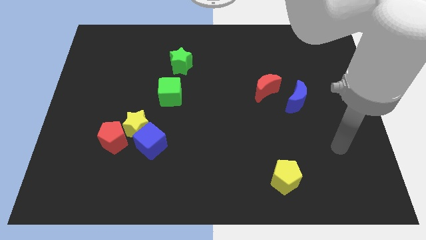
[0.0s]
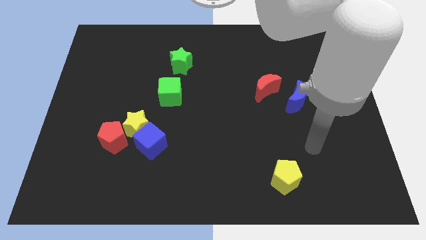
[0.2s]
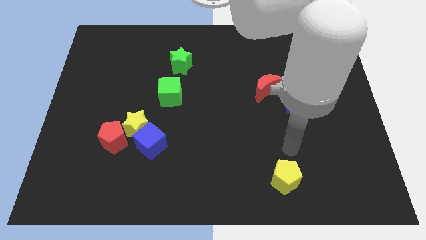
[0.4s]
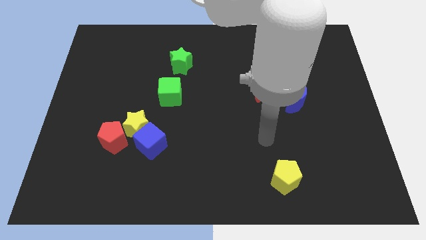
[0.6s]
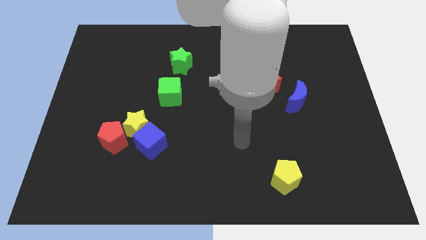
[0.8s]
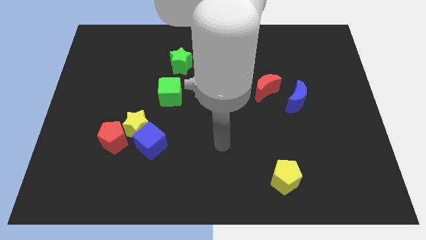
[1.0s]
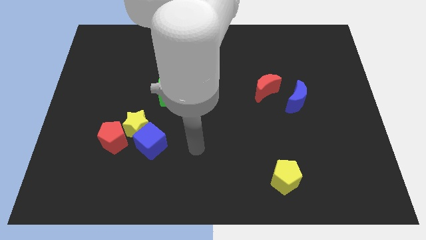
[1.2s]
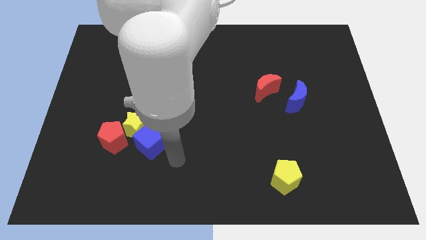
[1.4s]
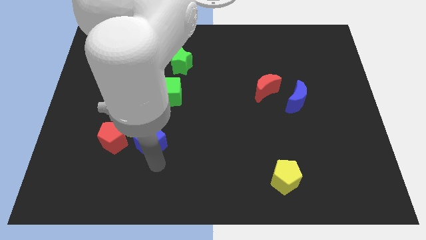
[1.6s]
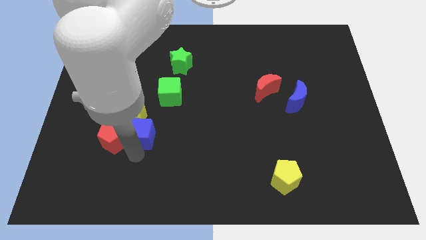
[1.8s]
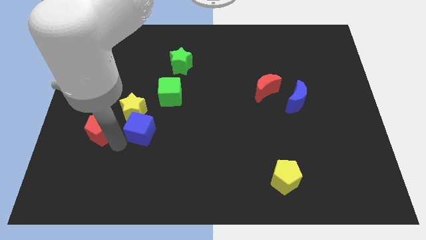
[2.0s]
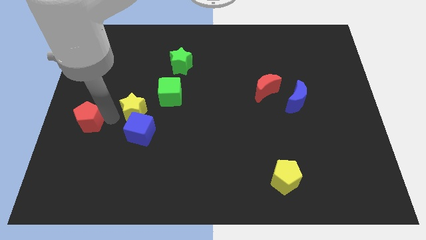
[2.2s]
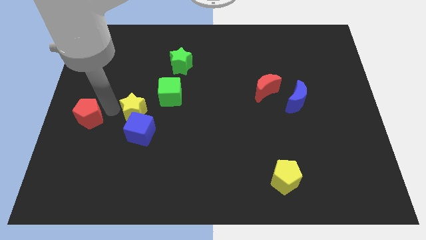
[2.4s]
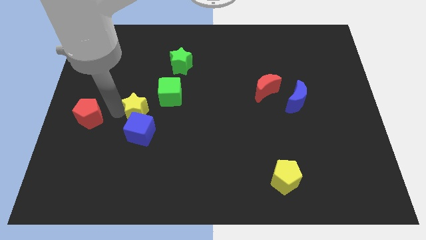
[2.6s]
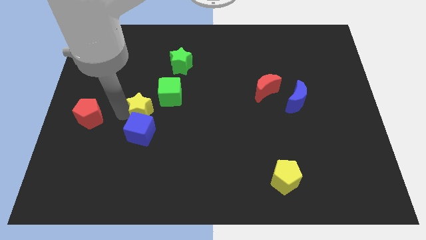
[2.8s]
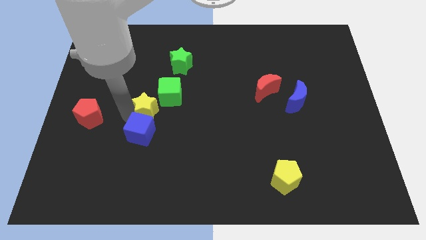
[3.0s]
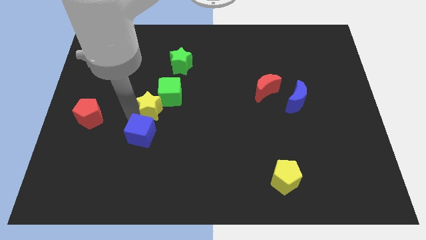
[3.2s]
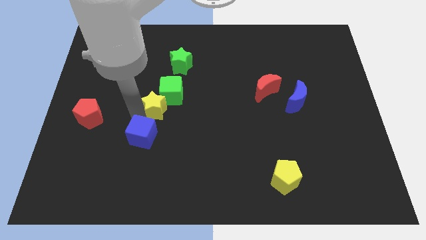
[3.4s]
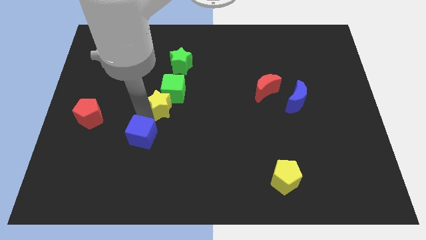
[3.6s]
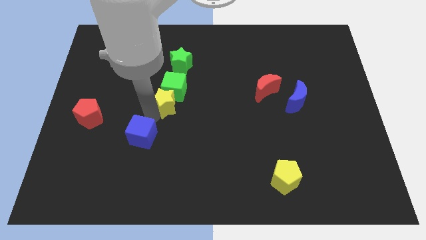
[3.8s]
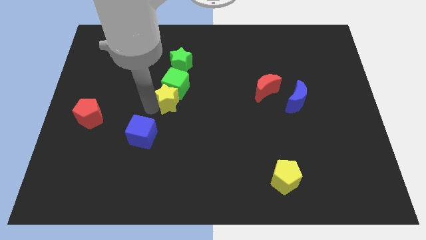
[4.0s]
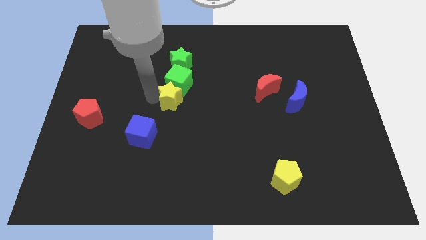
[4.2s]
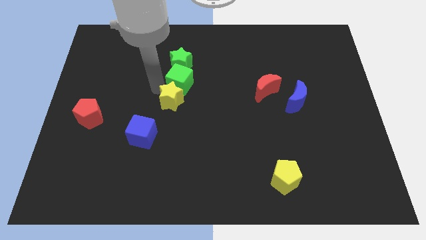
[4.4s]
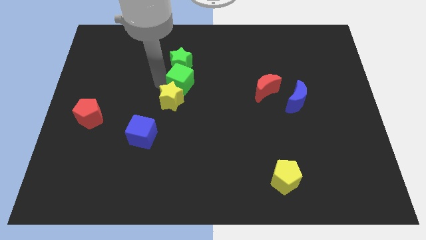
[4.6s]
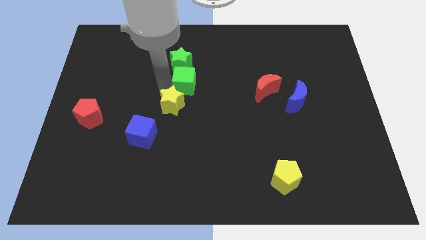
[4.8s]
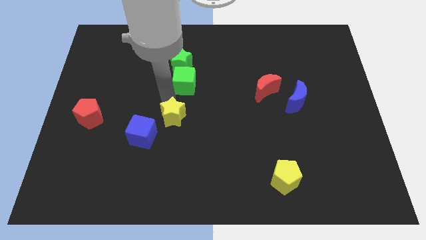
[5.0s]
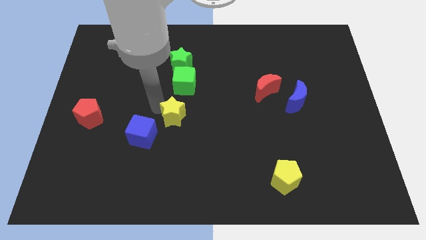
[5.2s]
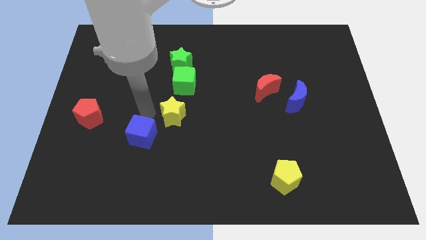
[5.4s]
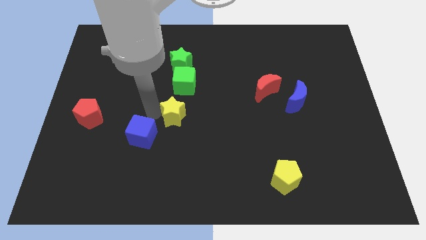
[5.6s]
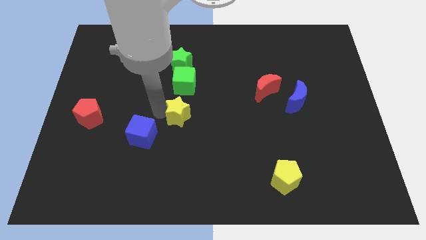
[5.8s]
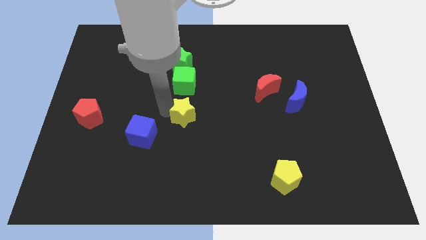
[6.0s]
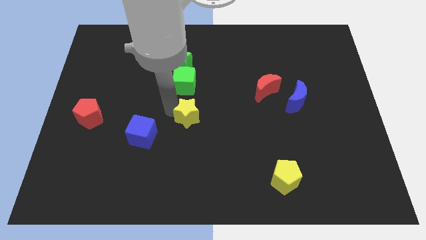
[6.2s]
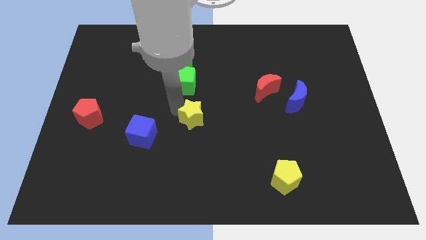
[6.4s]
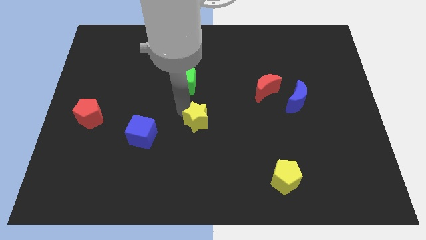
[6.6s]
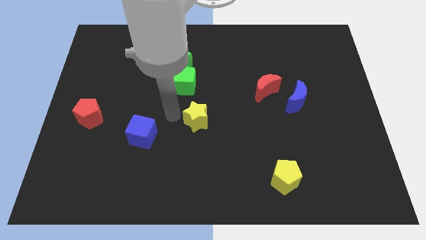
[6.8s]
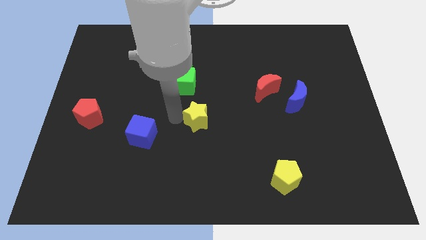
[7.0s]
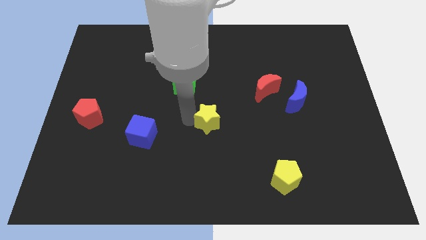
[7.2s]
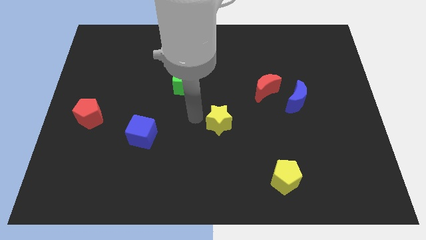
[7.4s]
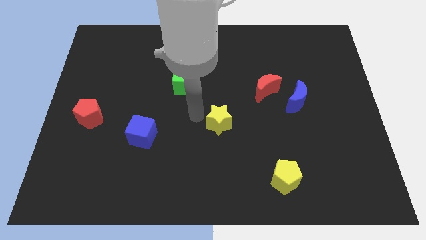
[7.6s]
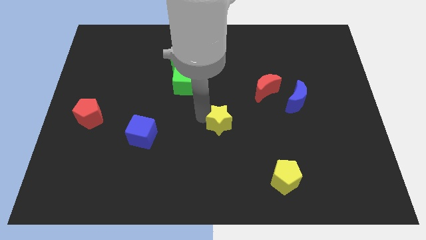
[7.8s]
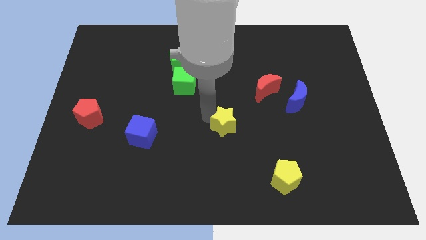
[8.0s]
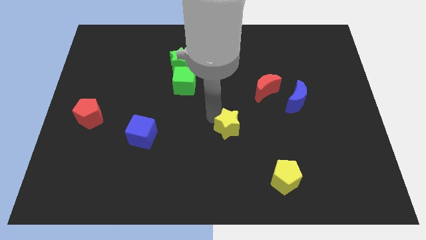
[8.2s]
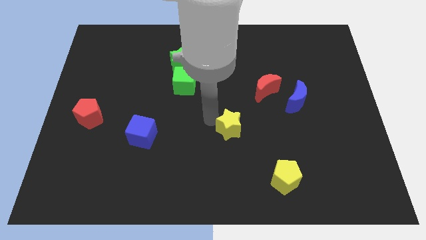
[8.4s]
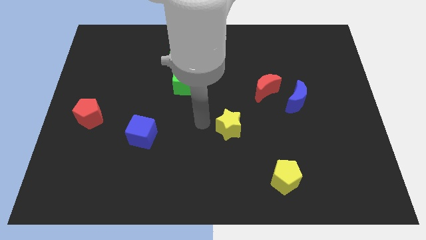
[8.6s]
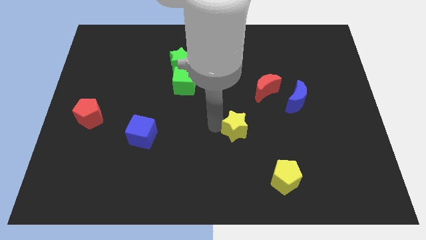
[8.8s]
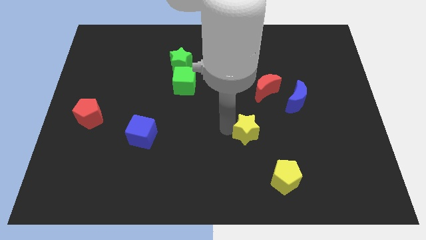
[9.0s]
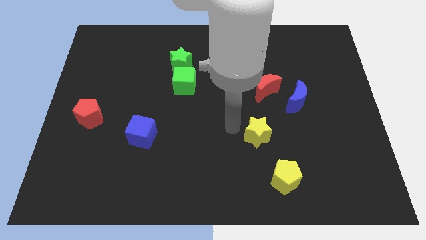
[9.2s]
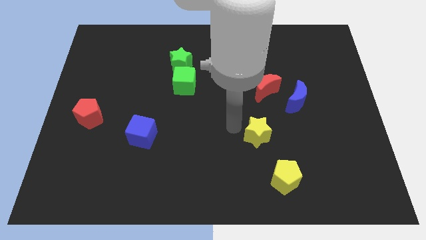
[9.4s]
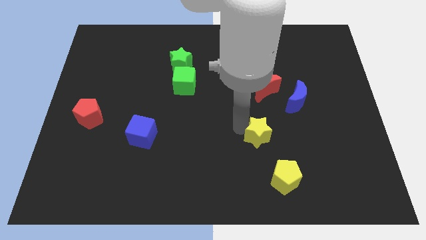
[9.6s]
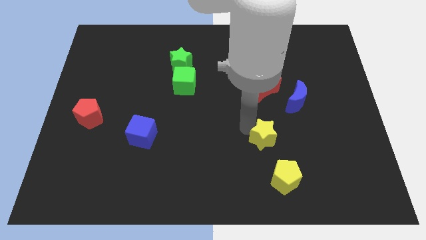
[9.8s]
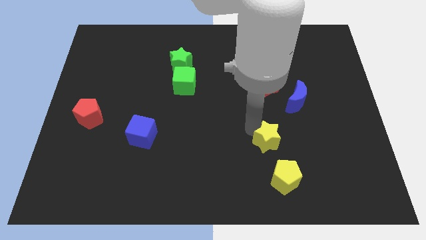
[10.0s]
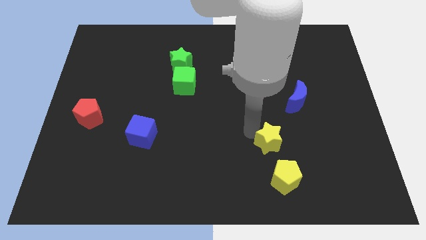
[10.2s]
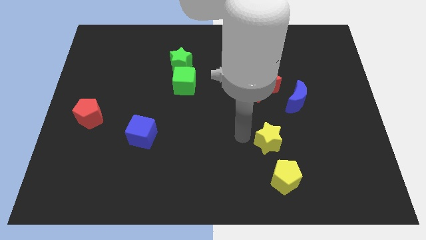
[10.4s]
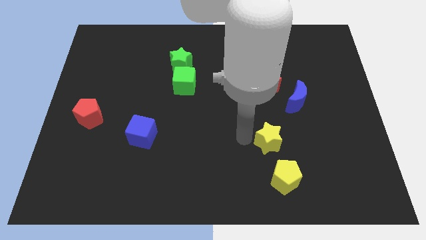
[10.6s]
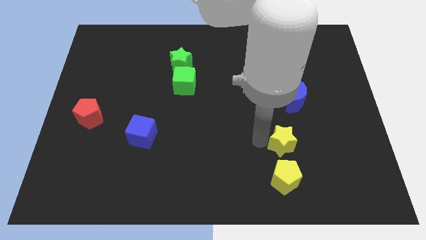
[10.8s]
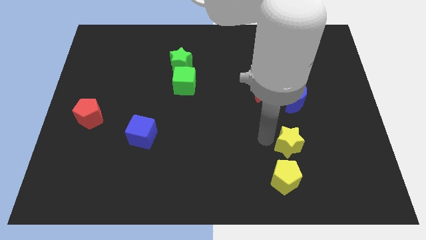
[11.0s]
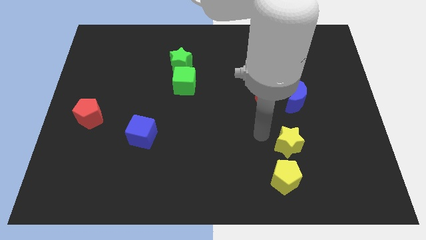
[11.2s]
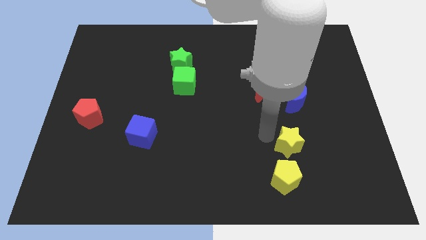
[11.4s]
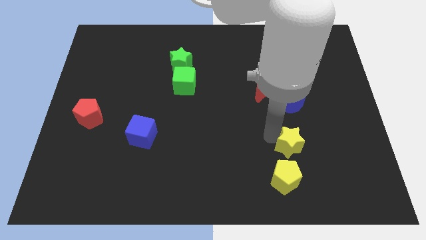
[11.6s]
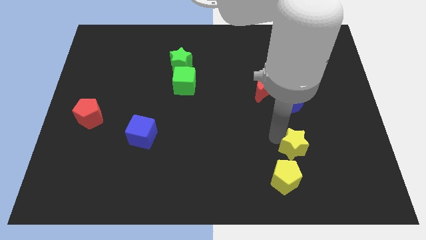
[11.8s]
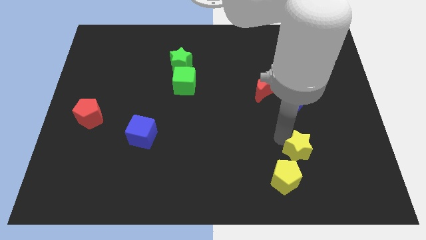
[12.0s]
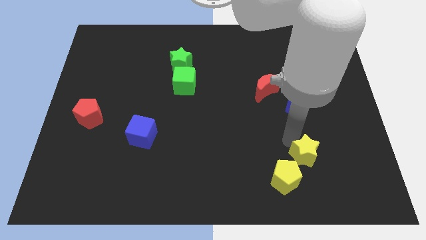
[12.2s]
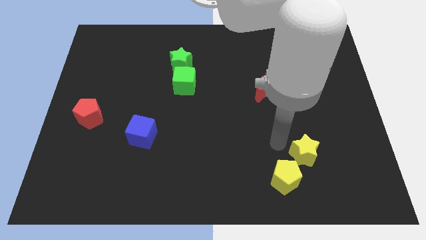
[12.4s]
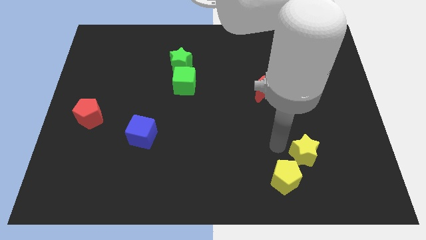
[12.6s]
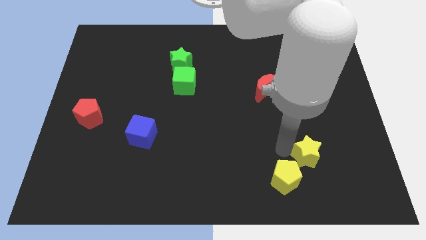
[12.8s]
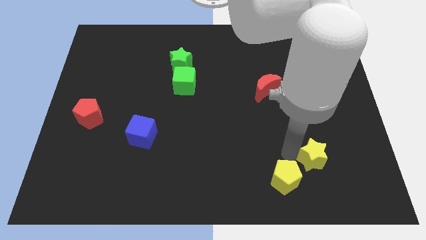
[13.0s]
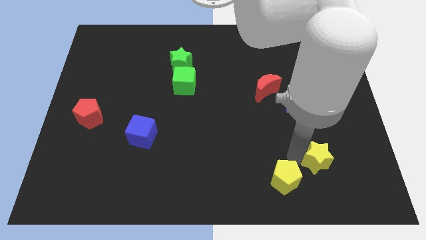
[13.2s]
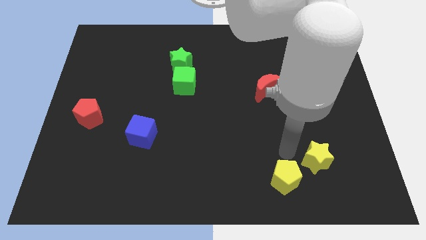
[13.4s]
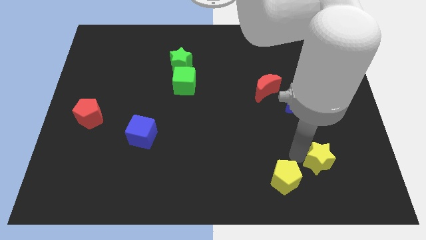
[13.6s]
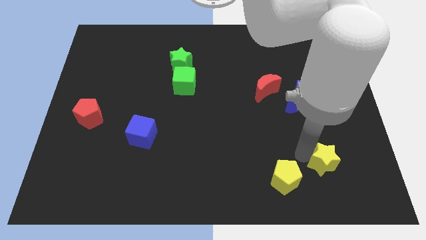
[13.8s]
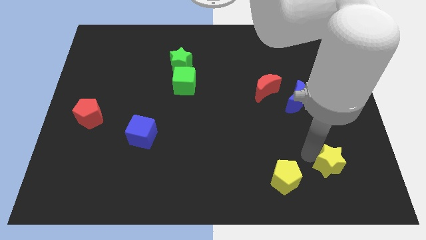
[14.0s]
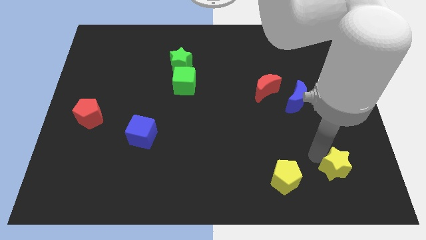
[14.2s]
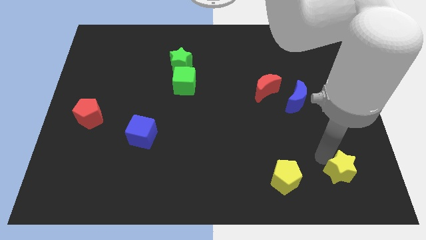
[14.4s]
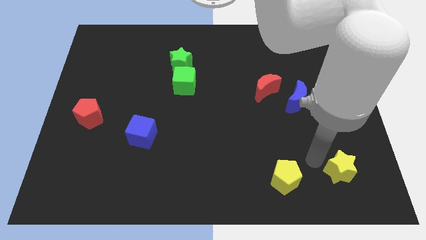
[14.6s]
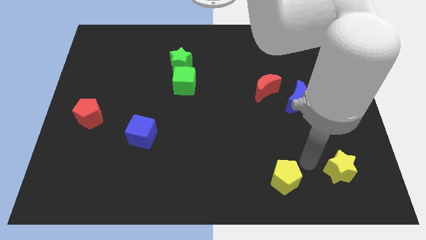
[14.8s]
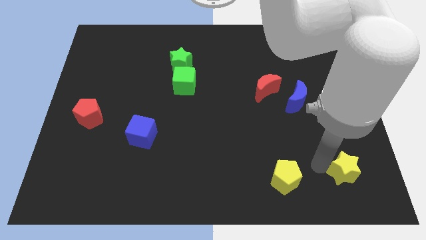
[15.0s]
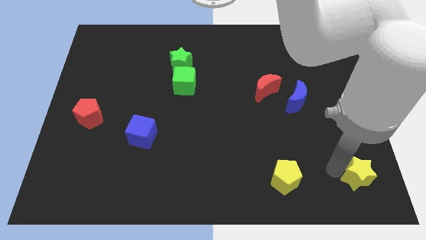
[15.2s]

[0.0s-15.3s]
move the yellow star to the bottom right of the board
